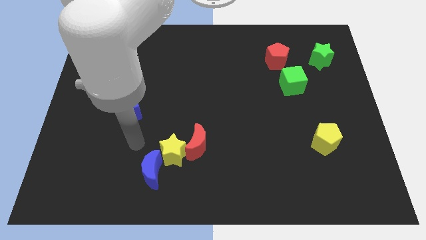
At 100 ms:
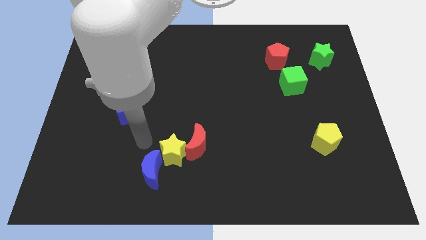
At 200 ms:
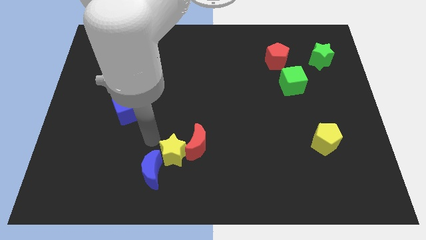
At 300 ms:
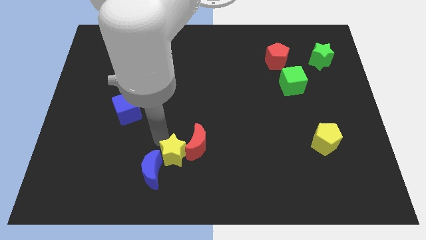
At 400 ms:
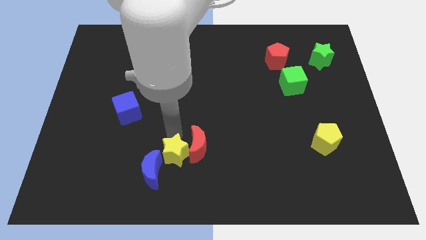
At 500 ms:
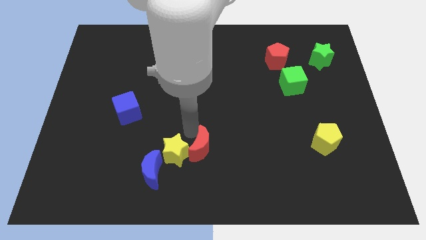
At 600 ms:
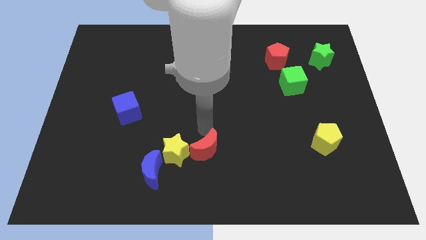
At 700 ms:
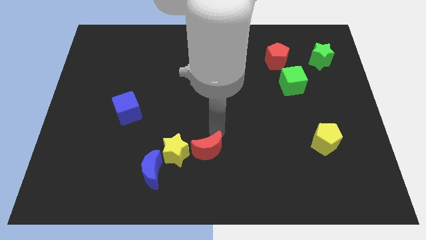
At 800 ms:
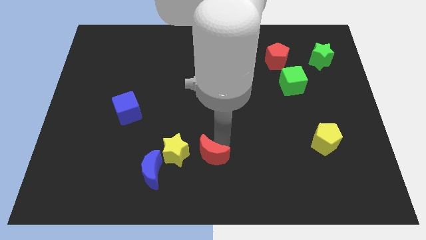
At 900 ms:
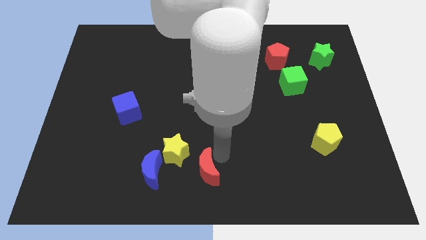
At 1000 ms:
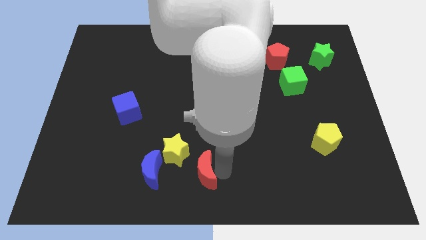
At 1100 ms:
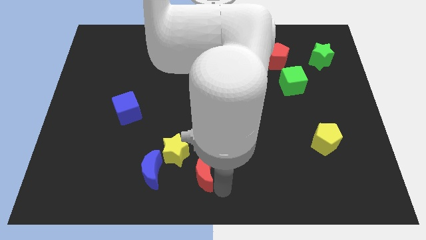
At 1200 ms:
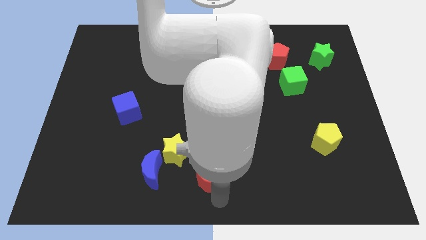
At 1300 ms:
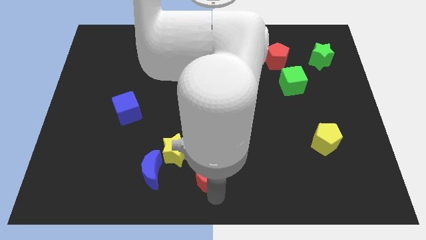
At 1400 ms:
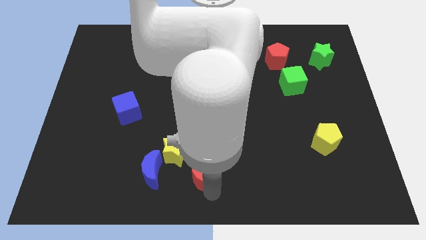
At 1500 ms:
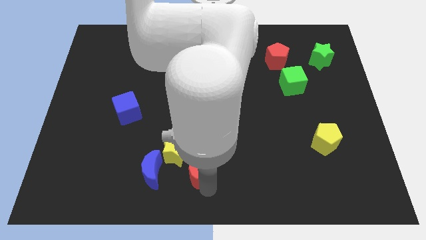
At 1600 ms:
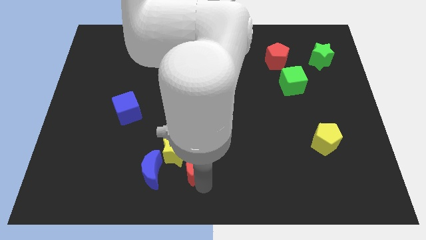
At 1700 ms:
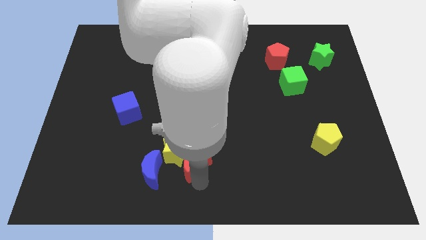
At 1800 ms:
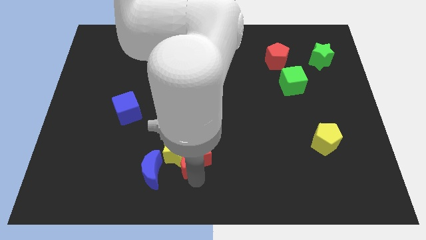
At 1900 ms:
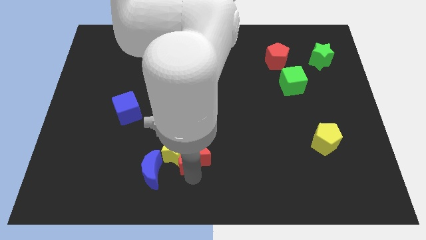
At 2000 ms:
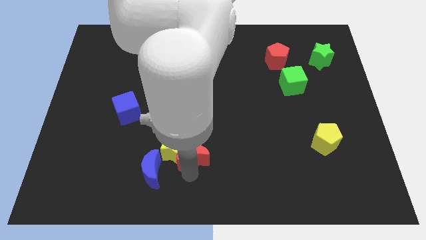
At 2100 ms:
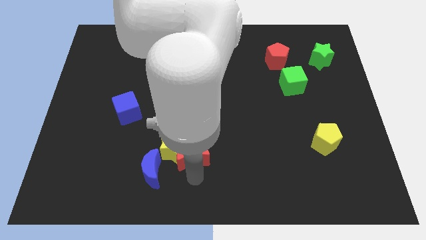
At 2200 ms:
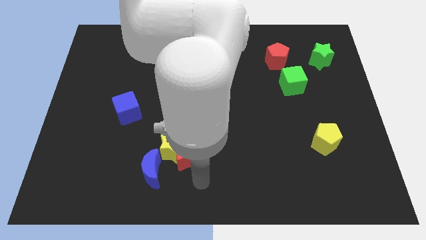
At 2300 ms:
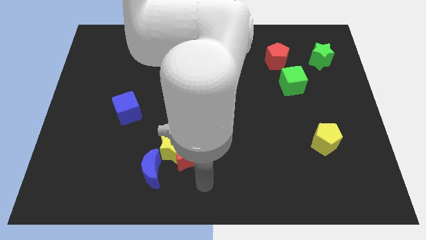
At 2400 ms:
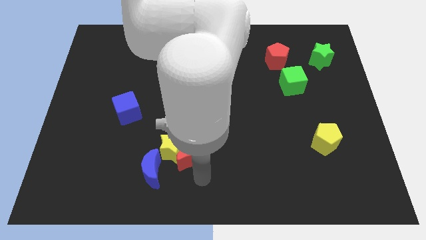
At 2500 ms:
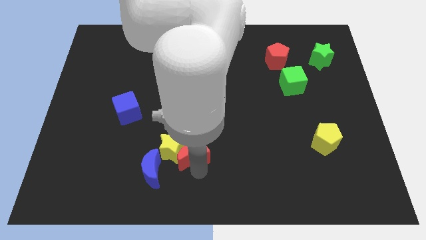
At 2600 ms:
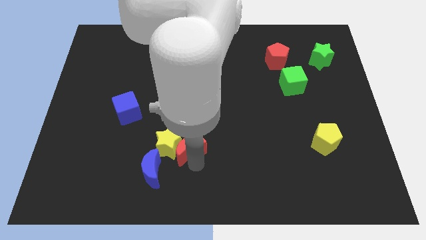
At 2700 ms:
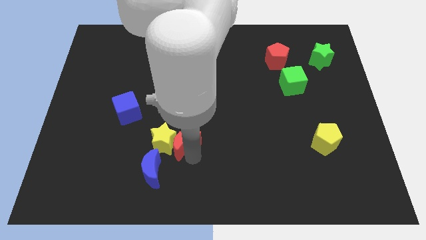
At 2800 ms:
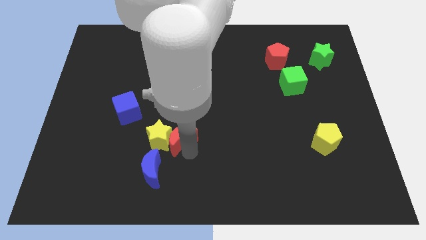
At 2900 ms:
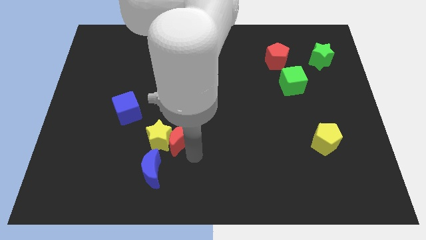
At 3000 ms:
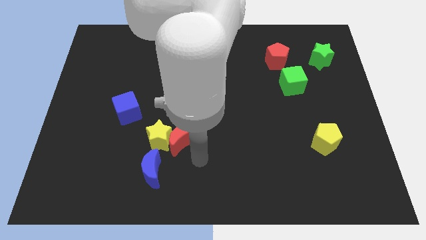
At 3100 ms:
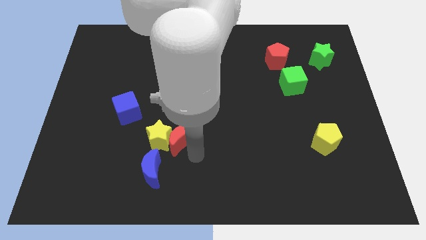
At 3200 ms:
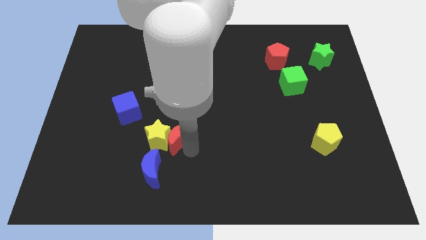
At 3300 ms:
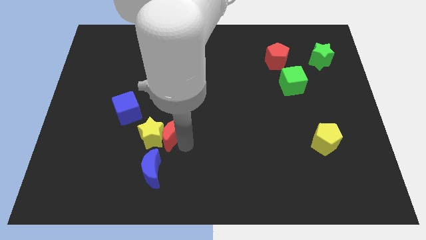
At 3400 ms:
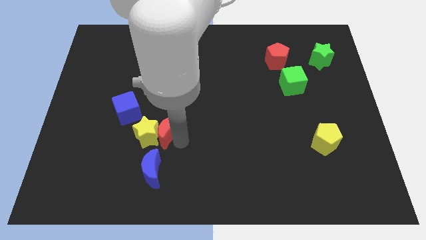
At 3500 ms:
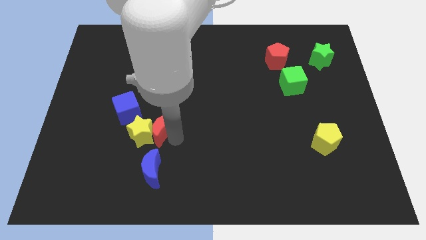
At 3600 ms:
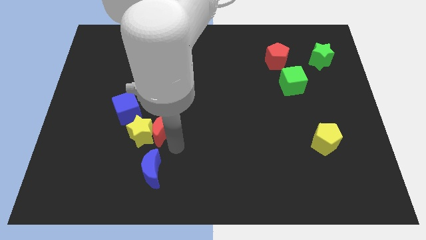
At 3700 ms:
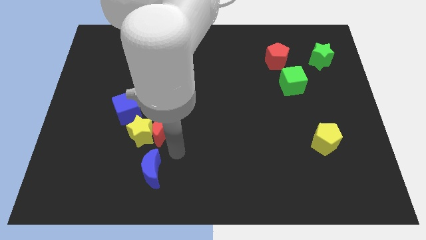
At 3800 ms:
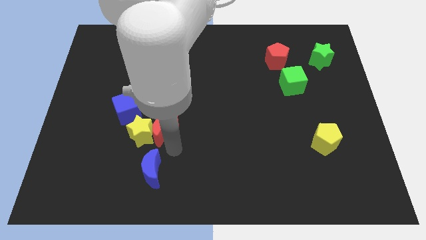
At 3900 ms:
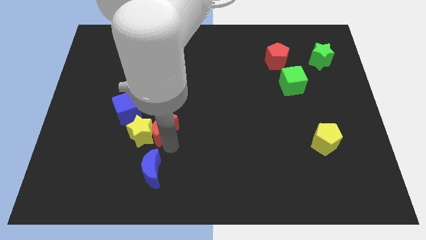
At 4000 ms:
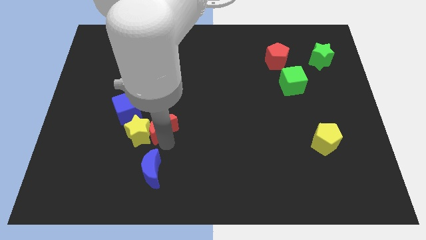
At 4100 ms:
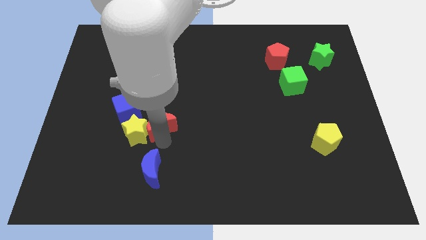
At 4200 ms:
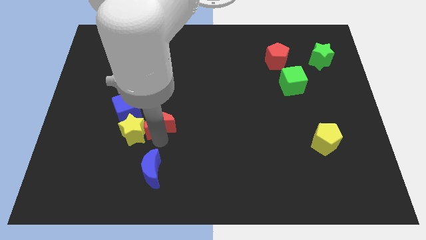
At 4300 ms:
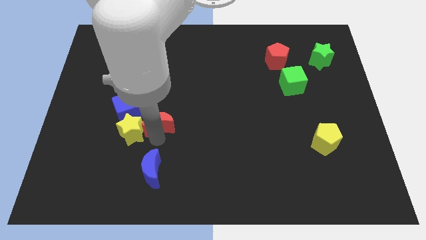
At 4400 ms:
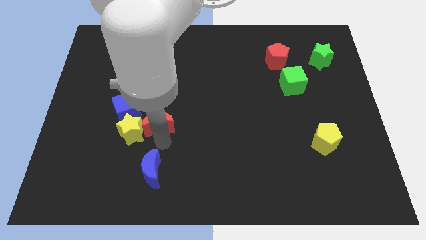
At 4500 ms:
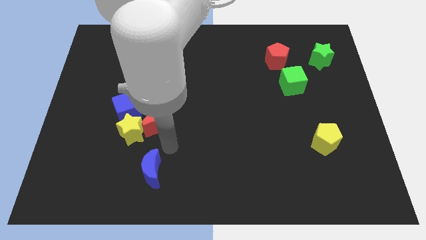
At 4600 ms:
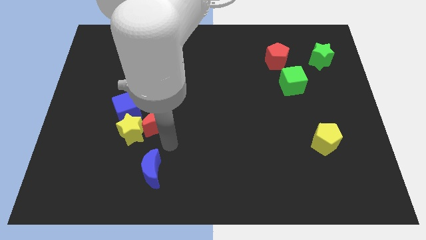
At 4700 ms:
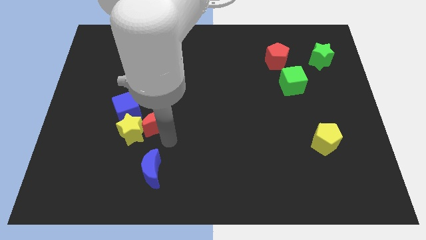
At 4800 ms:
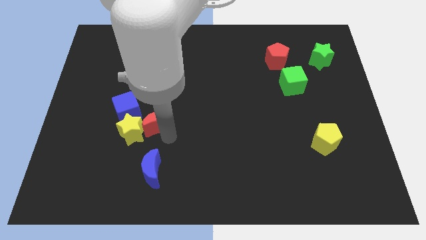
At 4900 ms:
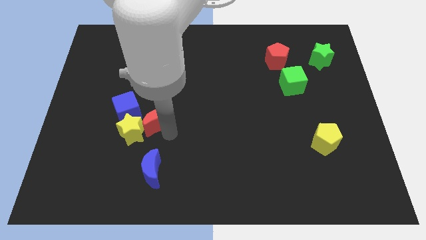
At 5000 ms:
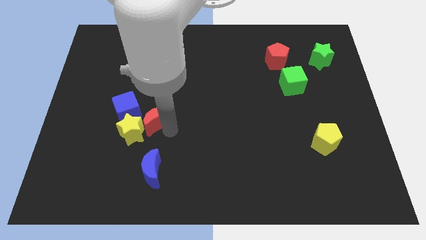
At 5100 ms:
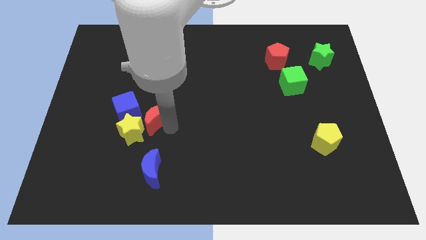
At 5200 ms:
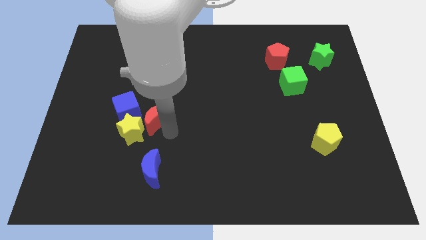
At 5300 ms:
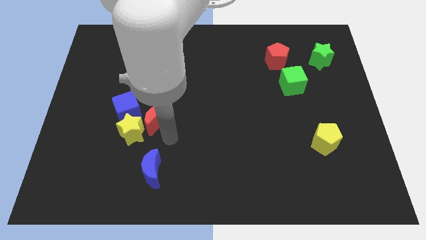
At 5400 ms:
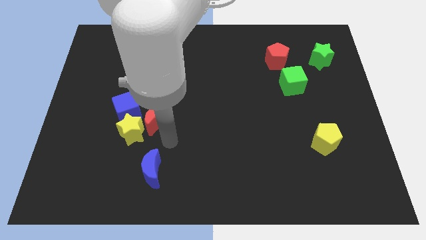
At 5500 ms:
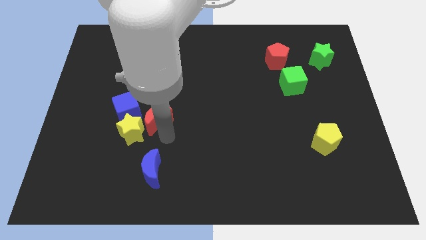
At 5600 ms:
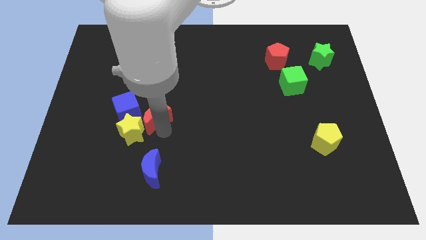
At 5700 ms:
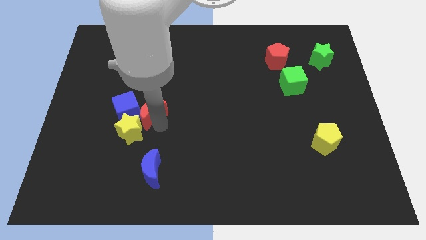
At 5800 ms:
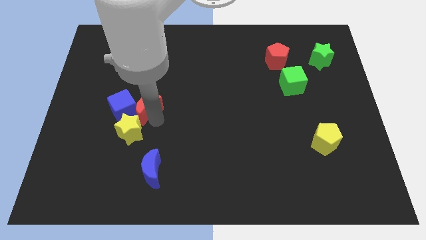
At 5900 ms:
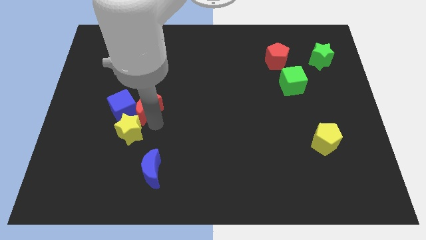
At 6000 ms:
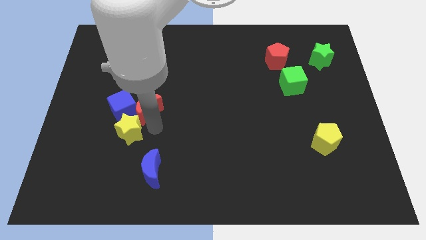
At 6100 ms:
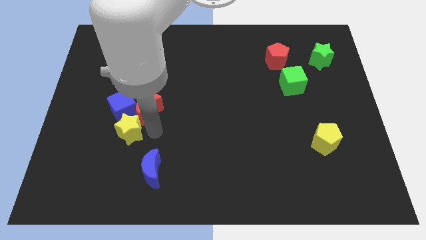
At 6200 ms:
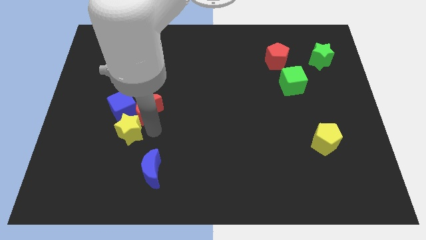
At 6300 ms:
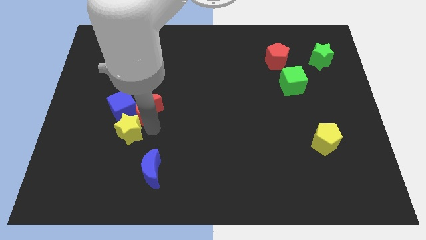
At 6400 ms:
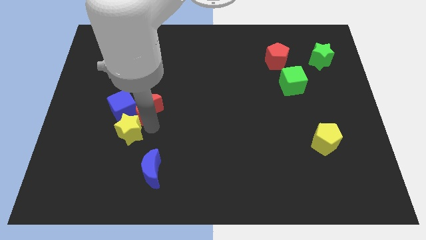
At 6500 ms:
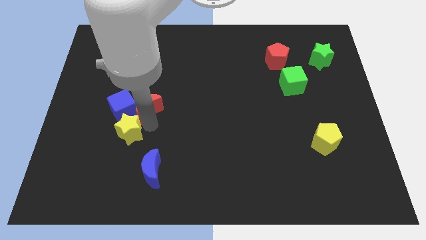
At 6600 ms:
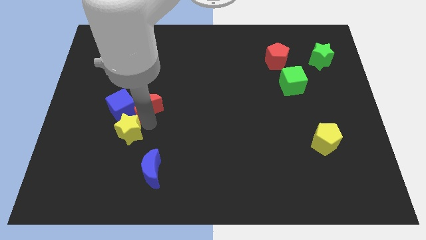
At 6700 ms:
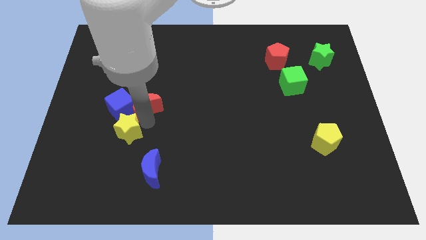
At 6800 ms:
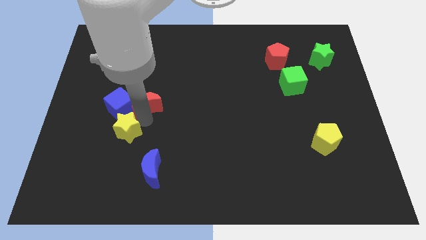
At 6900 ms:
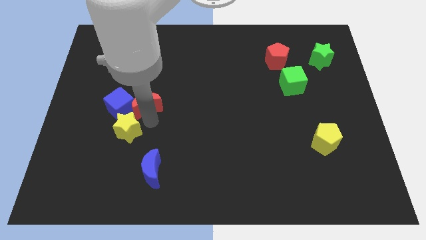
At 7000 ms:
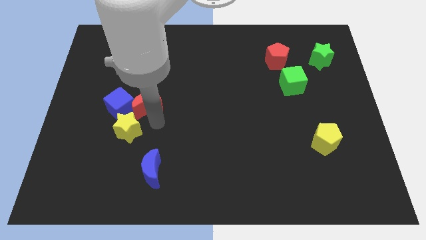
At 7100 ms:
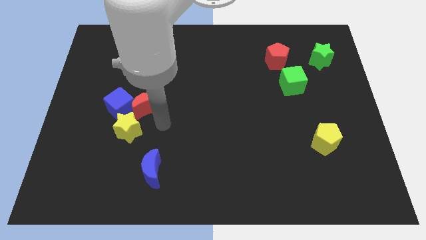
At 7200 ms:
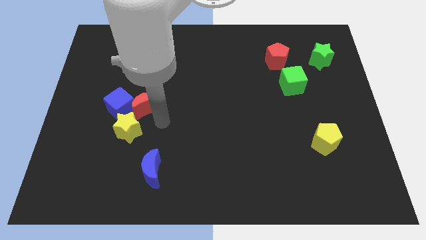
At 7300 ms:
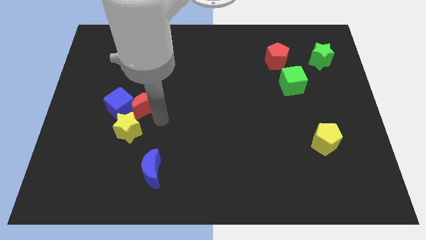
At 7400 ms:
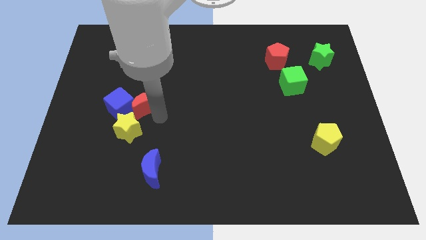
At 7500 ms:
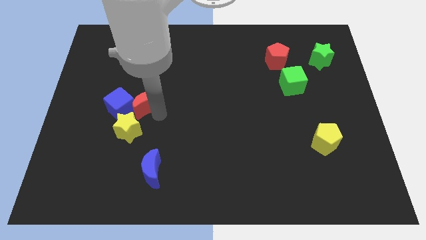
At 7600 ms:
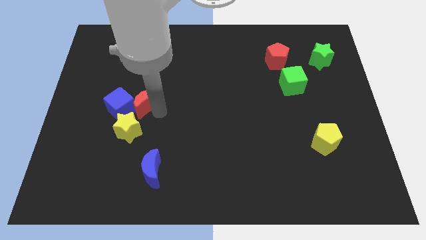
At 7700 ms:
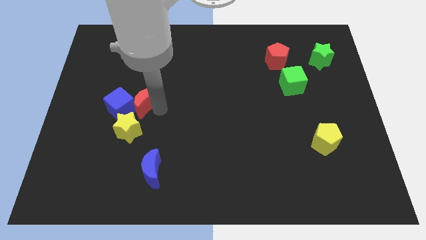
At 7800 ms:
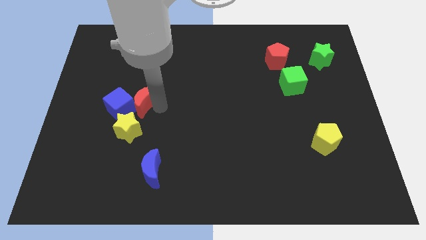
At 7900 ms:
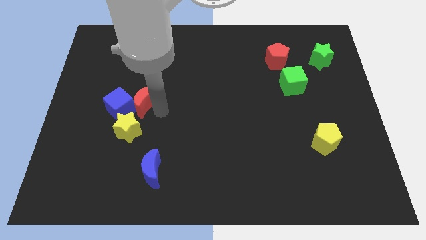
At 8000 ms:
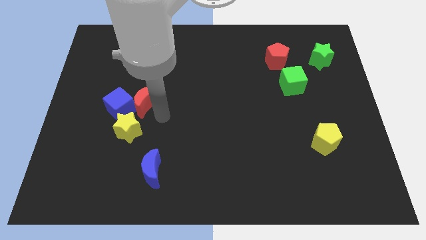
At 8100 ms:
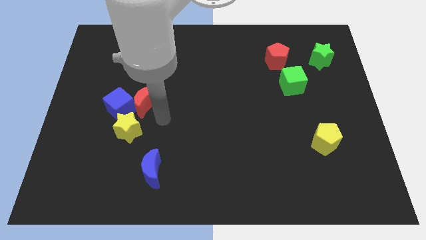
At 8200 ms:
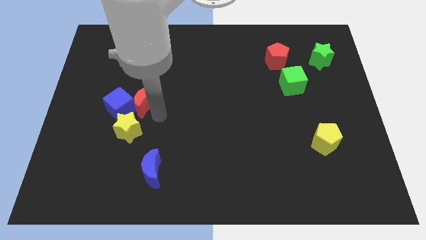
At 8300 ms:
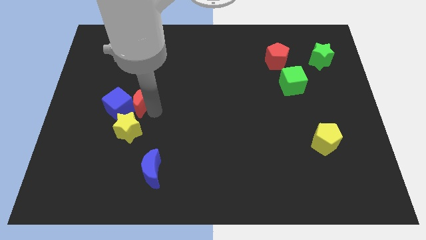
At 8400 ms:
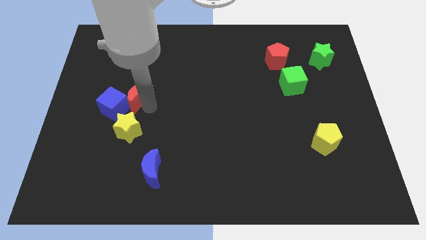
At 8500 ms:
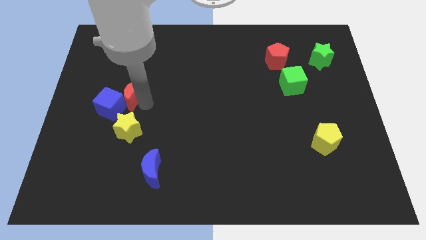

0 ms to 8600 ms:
slide the red moon upwards and then to the left
